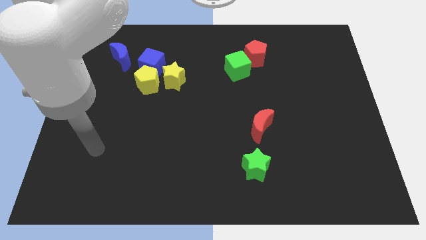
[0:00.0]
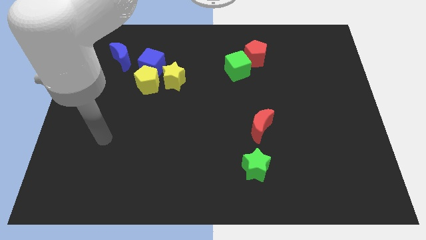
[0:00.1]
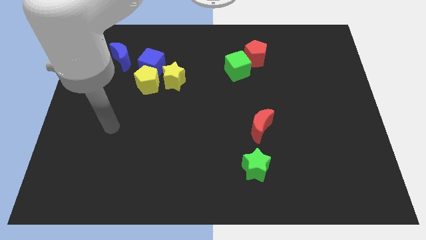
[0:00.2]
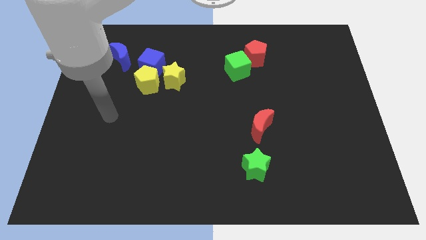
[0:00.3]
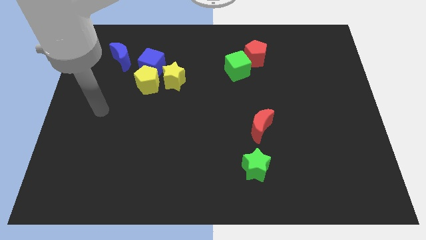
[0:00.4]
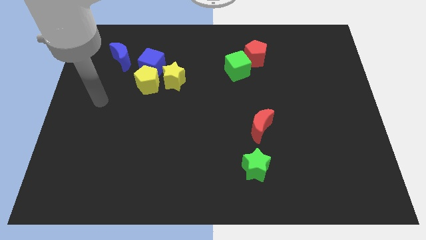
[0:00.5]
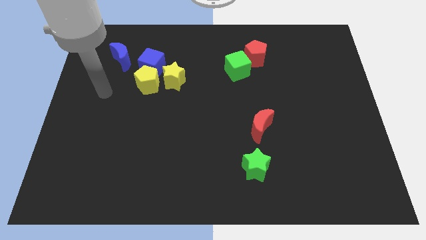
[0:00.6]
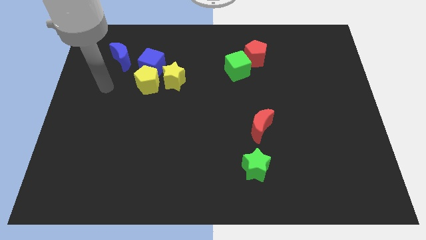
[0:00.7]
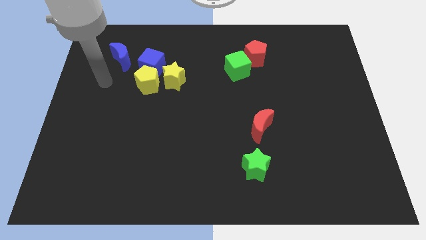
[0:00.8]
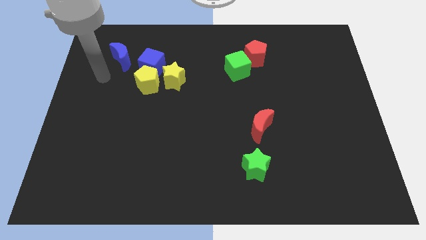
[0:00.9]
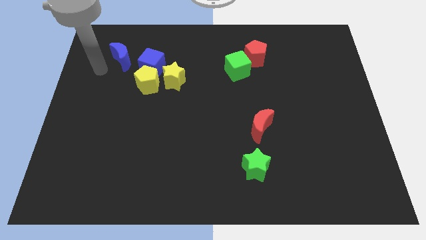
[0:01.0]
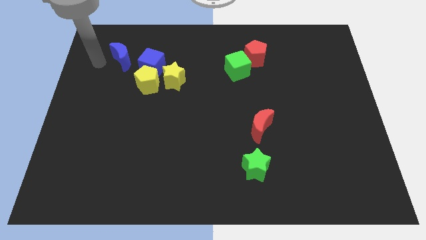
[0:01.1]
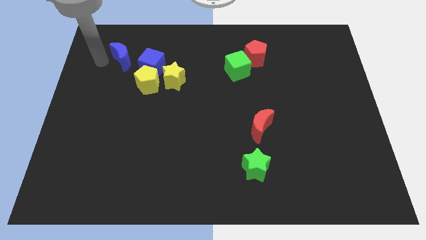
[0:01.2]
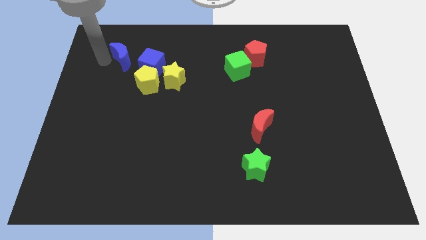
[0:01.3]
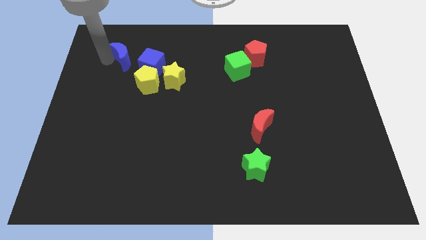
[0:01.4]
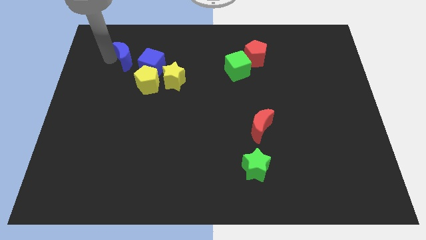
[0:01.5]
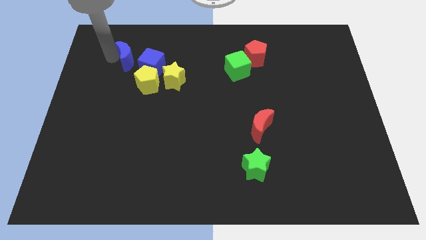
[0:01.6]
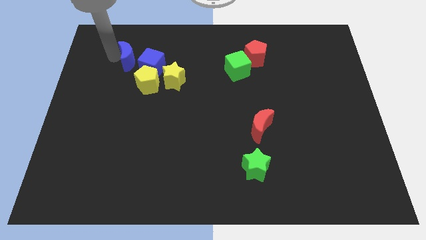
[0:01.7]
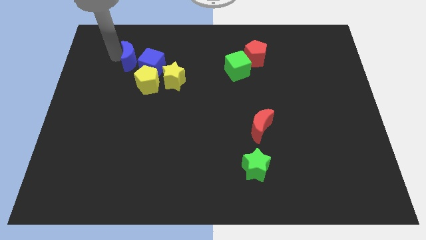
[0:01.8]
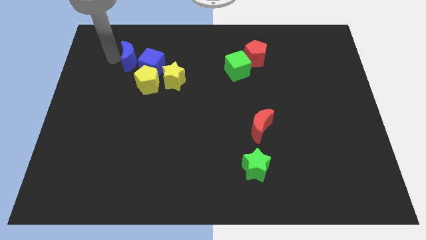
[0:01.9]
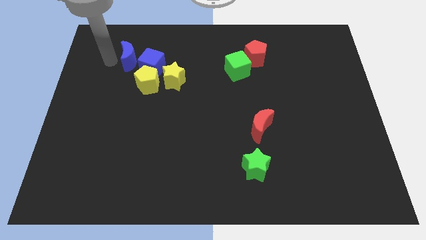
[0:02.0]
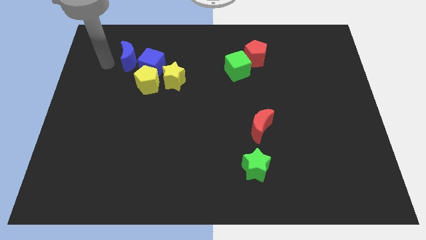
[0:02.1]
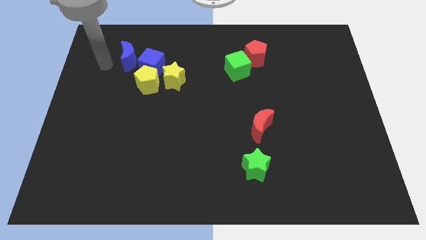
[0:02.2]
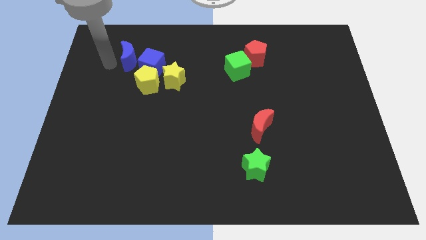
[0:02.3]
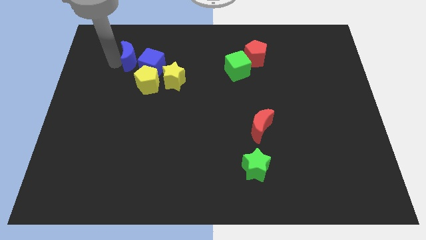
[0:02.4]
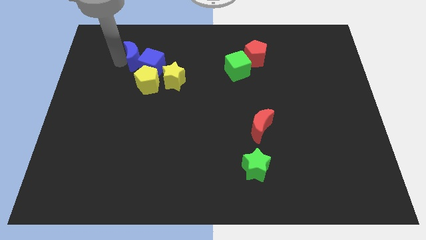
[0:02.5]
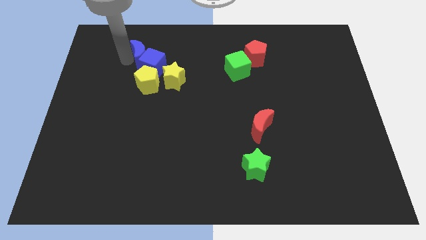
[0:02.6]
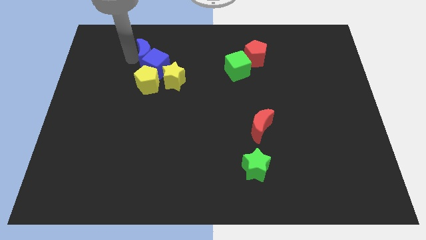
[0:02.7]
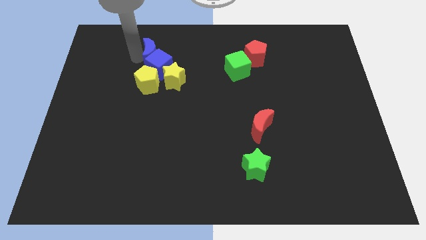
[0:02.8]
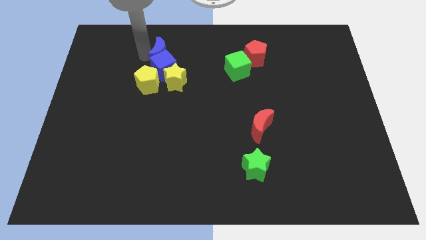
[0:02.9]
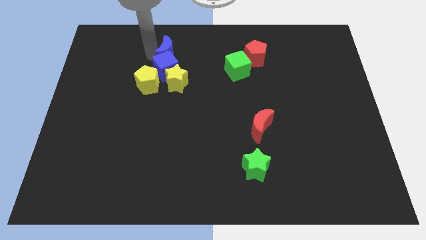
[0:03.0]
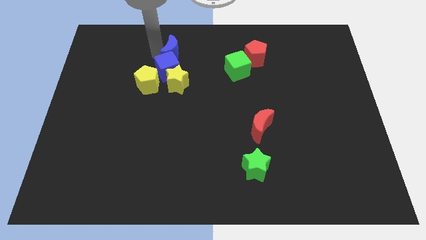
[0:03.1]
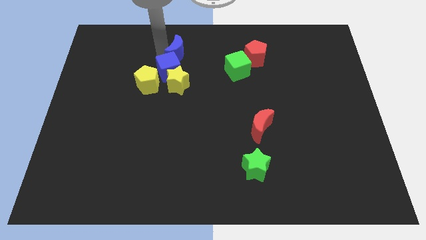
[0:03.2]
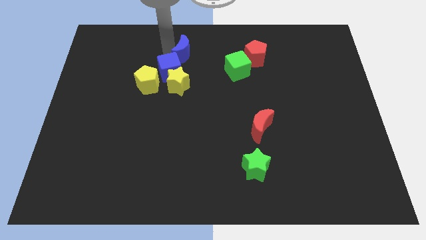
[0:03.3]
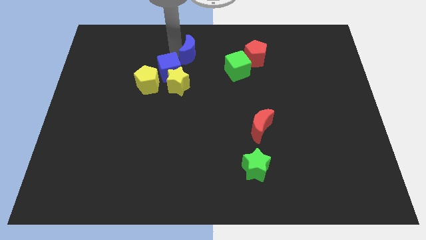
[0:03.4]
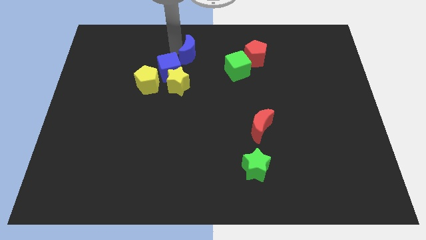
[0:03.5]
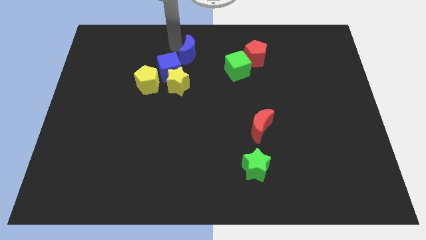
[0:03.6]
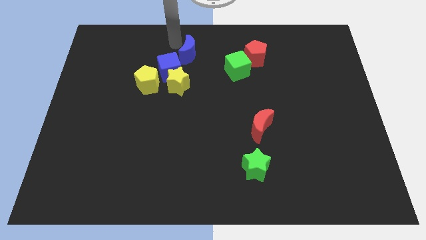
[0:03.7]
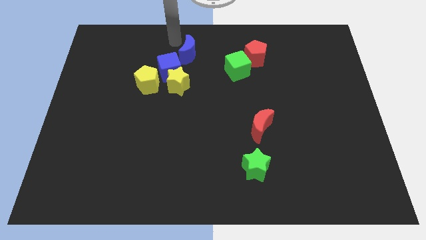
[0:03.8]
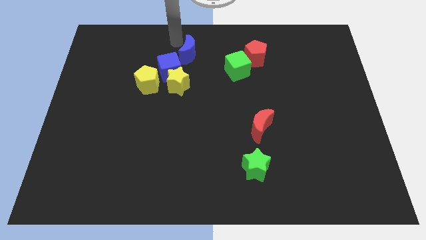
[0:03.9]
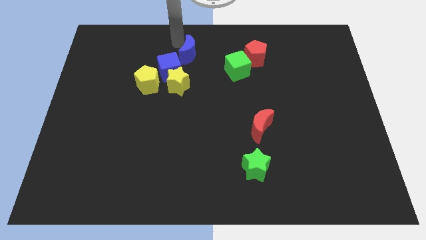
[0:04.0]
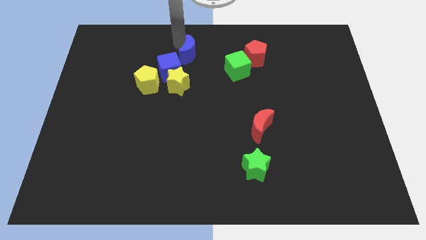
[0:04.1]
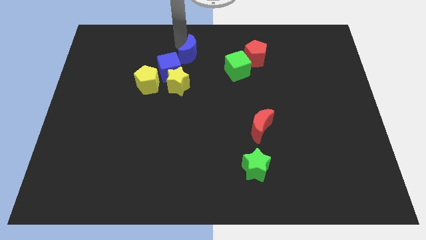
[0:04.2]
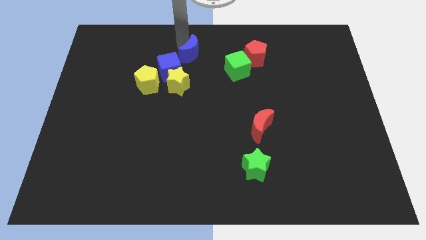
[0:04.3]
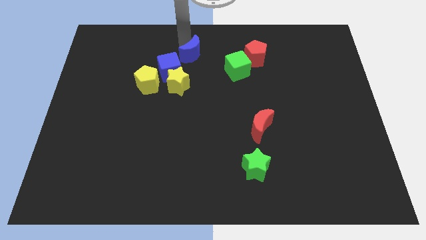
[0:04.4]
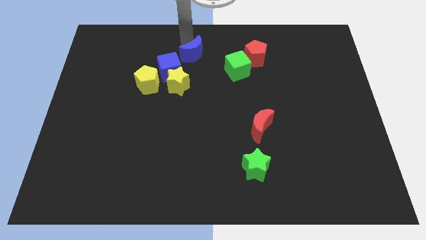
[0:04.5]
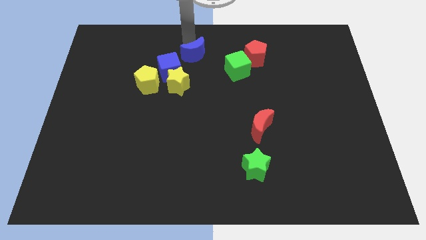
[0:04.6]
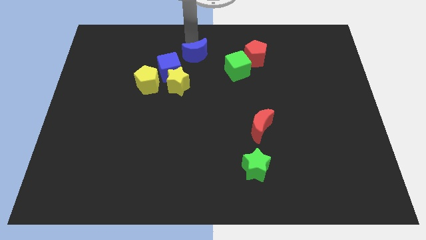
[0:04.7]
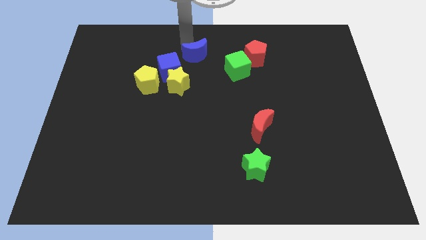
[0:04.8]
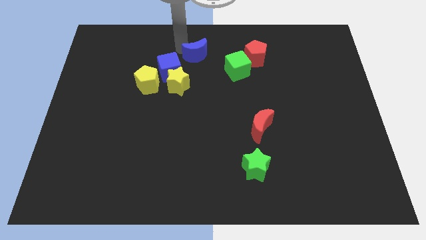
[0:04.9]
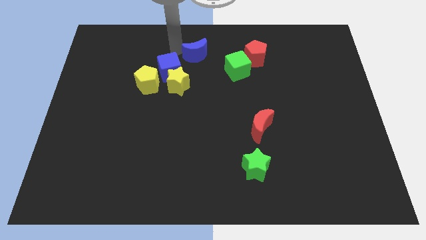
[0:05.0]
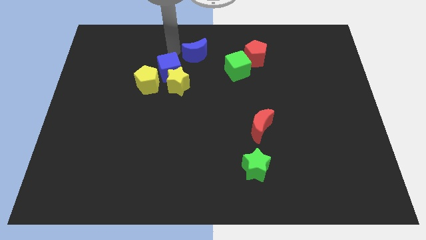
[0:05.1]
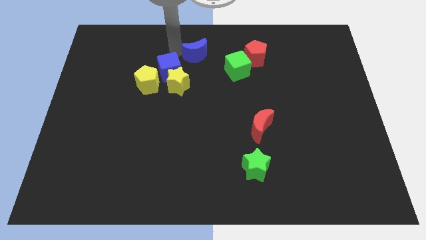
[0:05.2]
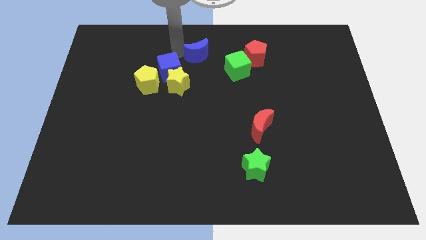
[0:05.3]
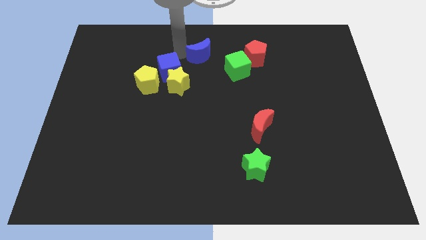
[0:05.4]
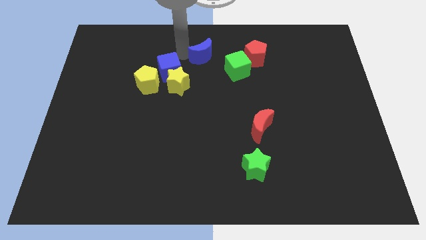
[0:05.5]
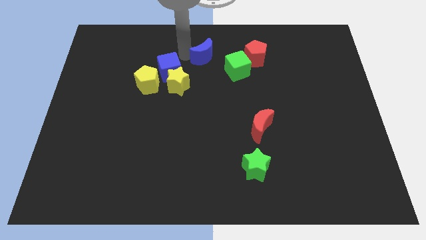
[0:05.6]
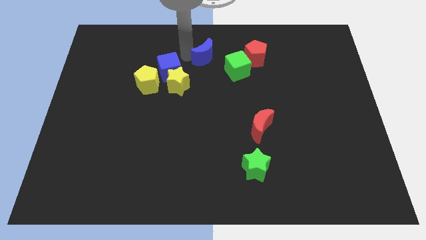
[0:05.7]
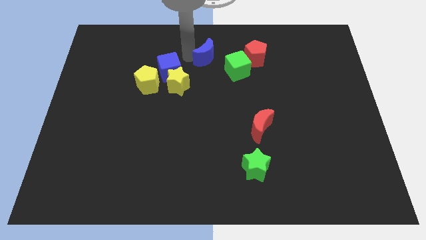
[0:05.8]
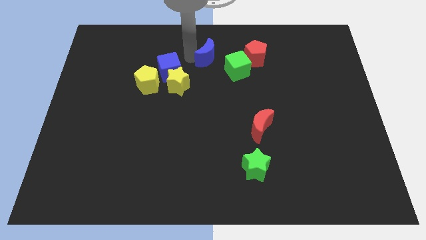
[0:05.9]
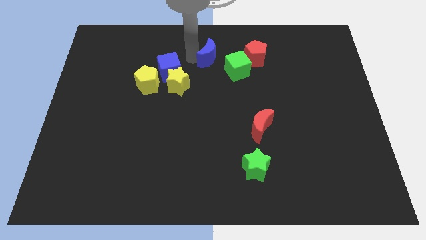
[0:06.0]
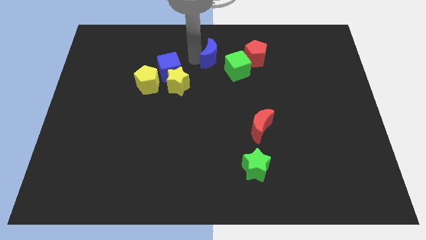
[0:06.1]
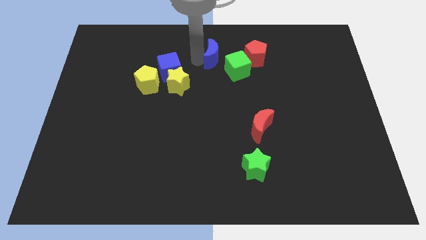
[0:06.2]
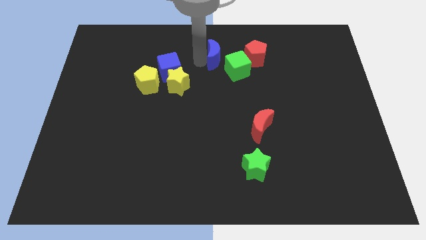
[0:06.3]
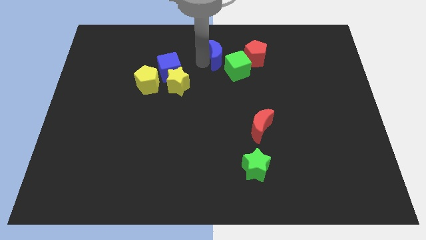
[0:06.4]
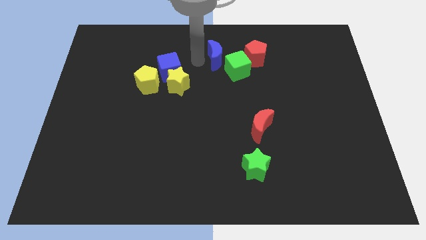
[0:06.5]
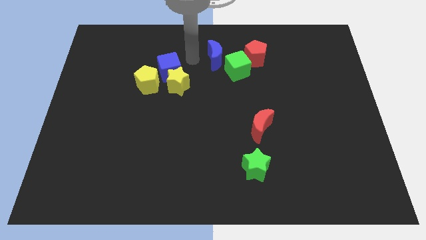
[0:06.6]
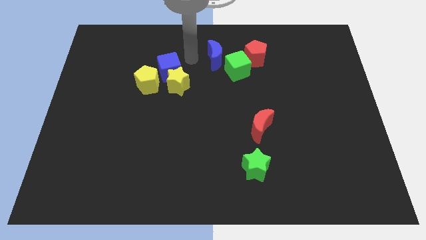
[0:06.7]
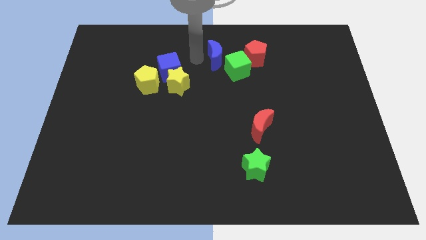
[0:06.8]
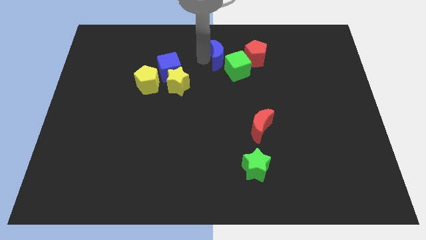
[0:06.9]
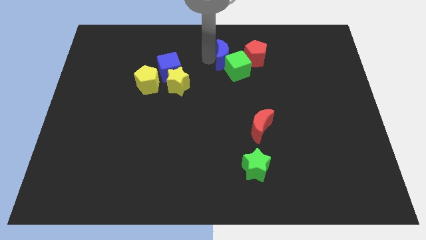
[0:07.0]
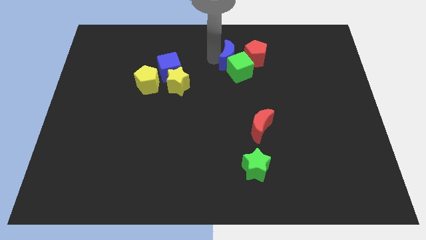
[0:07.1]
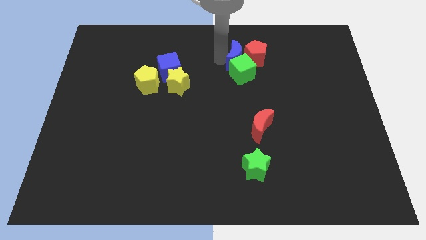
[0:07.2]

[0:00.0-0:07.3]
push the blue moon close to the red pentagon
